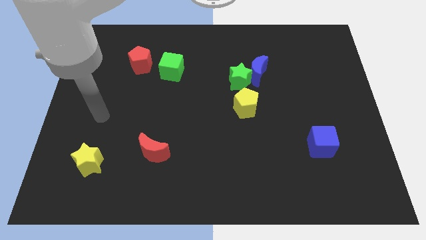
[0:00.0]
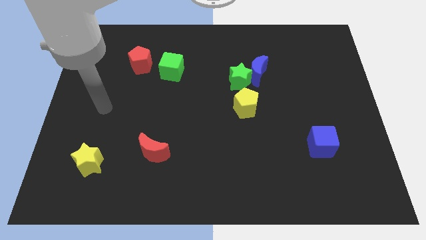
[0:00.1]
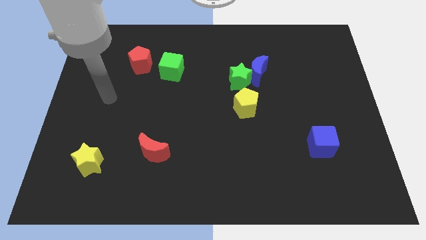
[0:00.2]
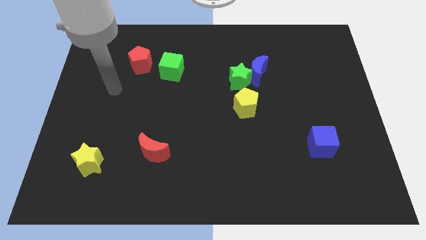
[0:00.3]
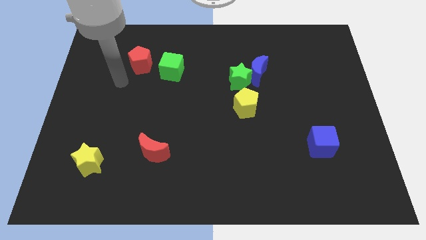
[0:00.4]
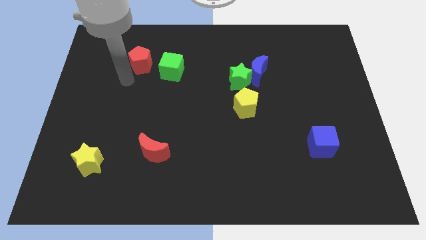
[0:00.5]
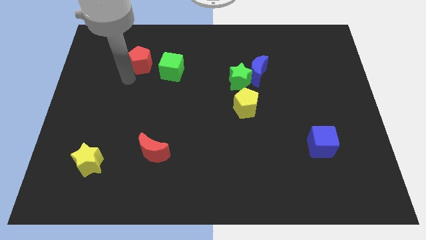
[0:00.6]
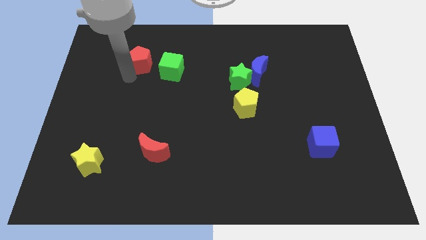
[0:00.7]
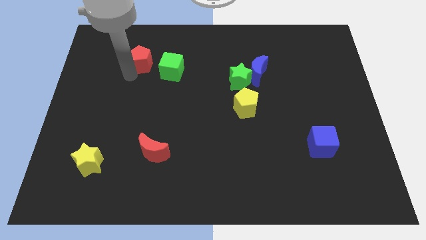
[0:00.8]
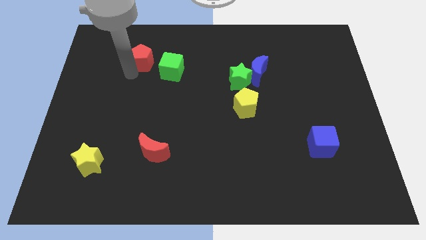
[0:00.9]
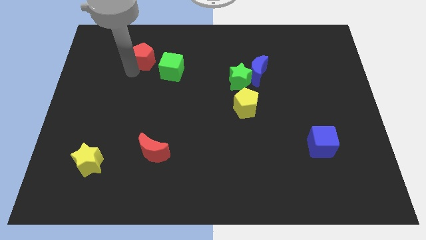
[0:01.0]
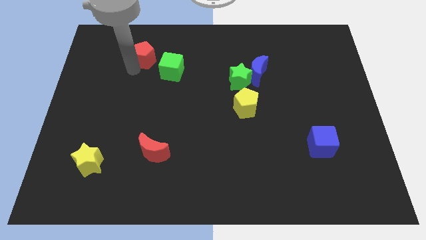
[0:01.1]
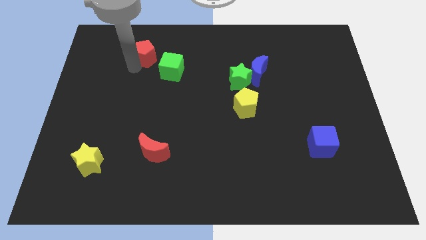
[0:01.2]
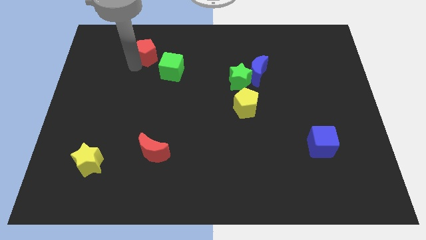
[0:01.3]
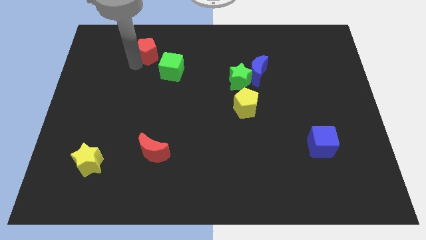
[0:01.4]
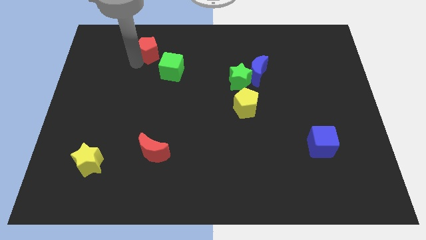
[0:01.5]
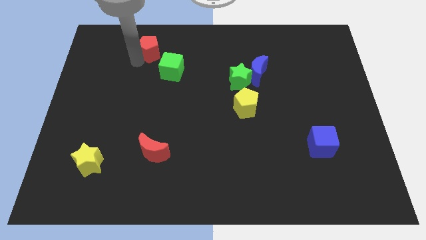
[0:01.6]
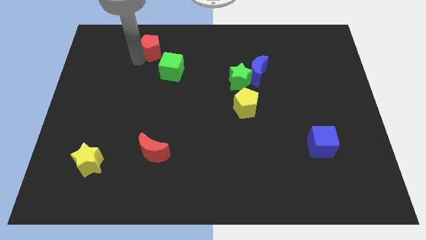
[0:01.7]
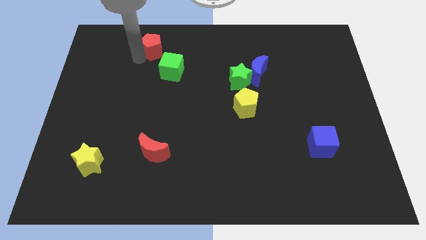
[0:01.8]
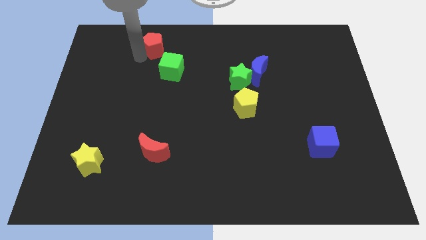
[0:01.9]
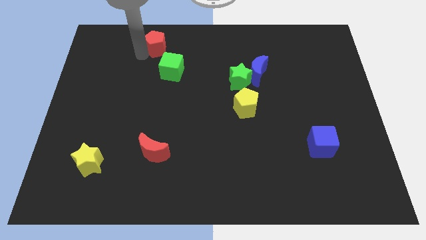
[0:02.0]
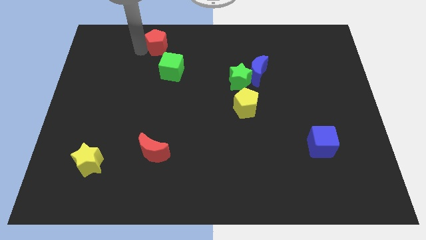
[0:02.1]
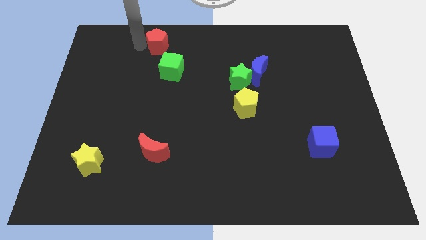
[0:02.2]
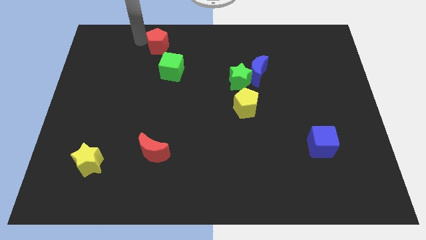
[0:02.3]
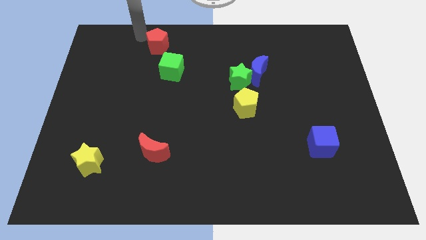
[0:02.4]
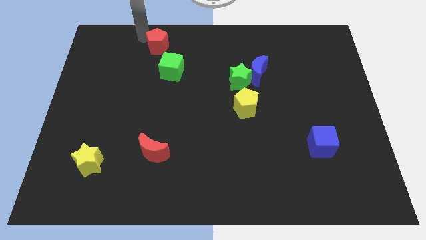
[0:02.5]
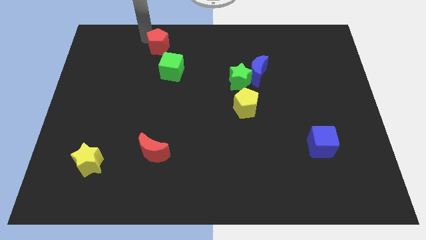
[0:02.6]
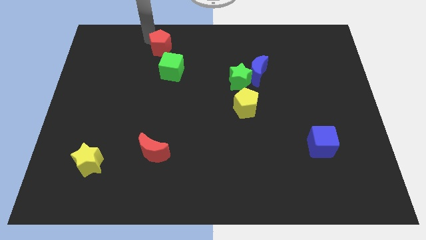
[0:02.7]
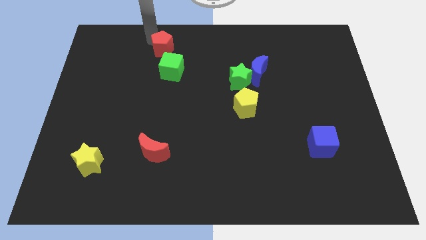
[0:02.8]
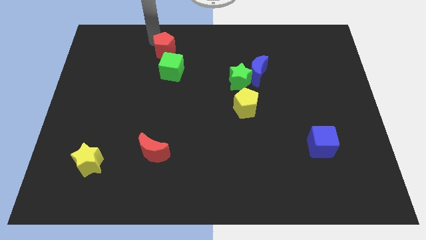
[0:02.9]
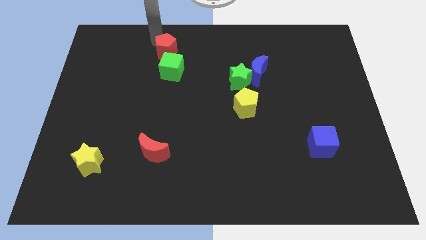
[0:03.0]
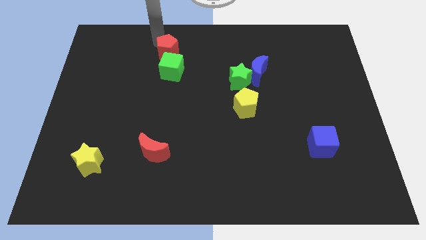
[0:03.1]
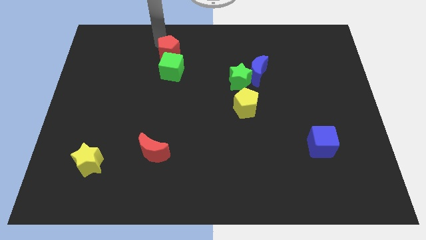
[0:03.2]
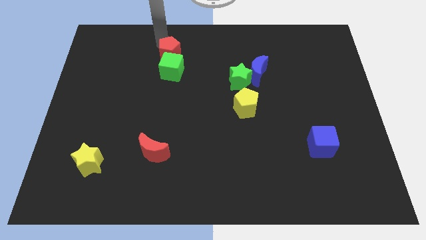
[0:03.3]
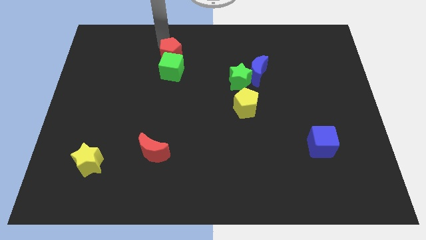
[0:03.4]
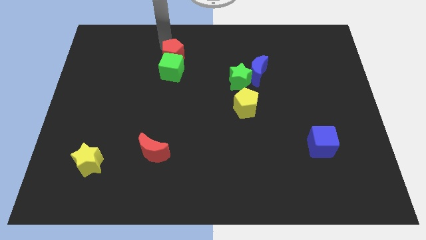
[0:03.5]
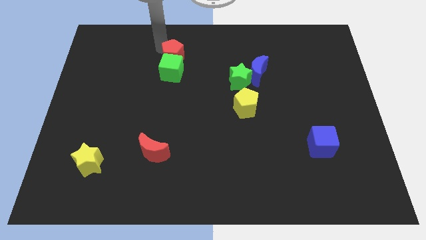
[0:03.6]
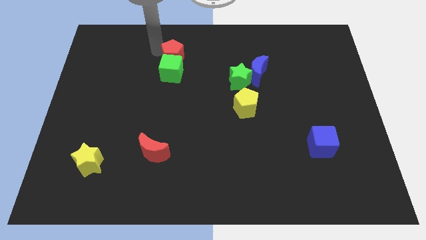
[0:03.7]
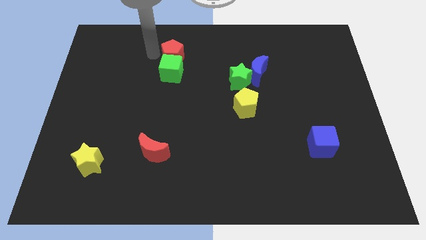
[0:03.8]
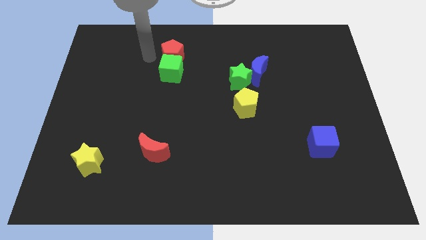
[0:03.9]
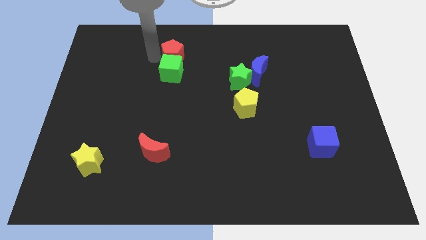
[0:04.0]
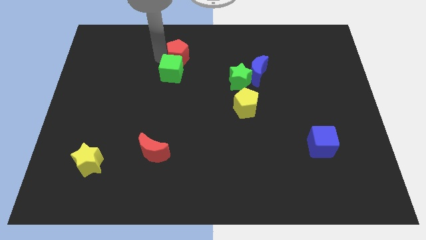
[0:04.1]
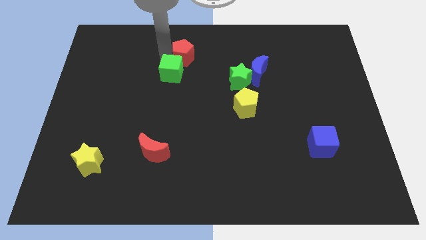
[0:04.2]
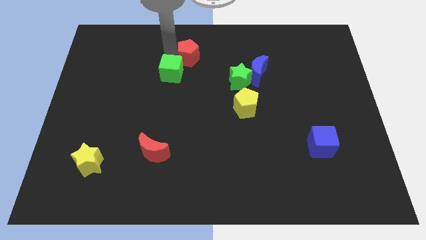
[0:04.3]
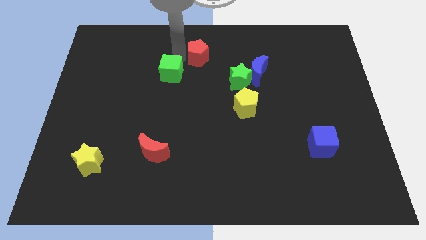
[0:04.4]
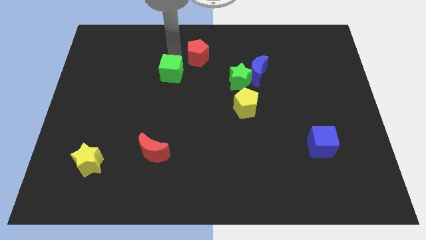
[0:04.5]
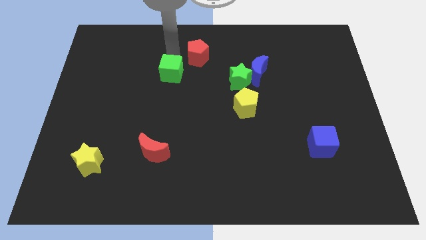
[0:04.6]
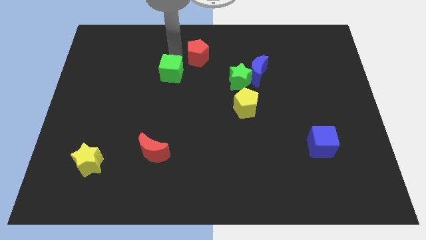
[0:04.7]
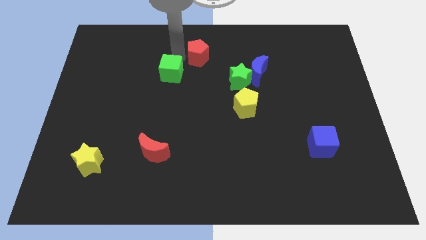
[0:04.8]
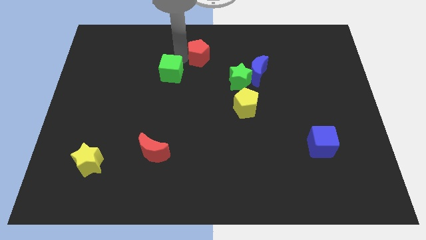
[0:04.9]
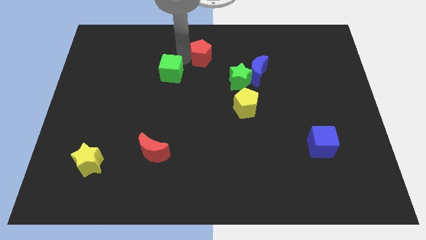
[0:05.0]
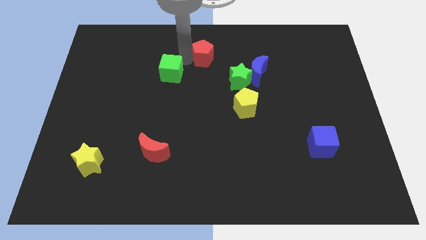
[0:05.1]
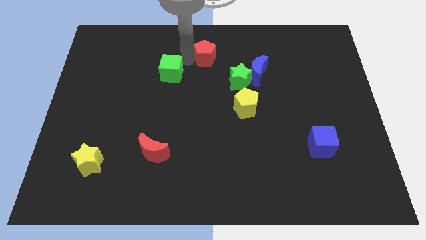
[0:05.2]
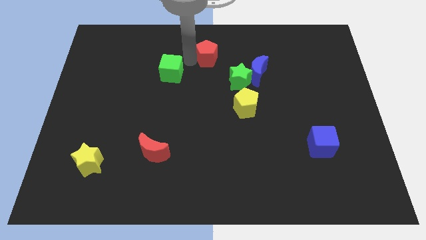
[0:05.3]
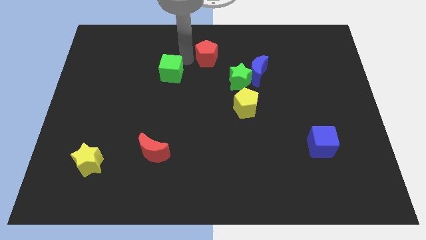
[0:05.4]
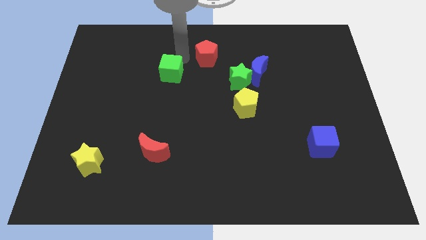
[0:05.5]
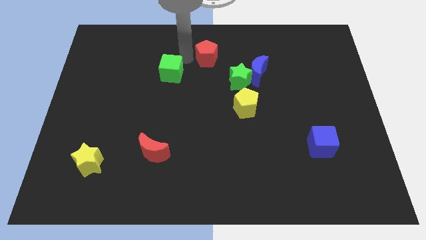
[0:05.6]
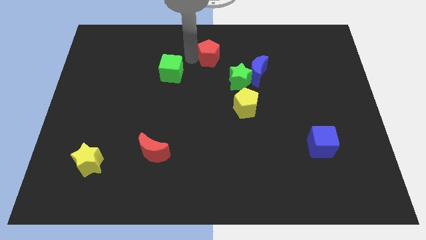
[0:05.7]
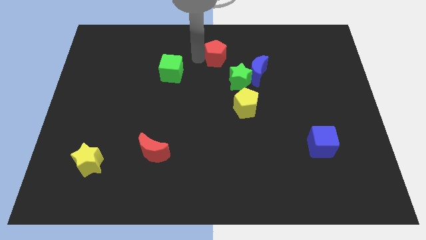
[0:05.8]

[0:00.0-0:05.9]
slide the red pentagon to the top left side of the blue moon
